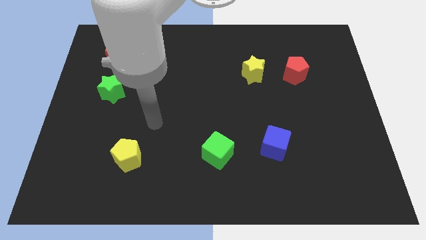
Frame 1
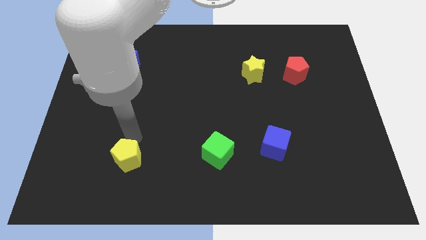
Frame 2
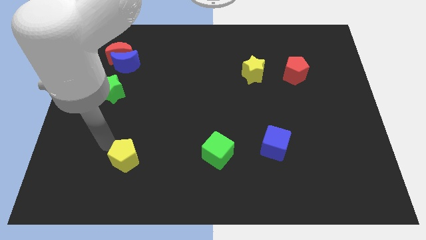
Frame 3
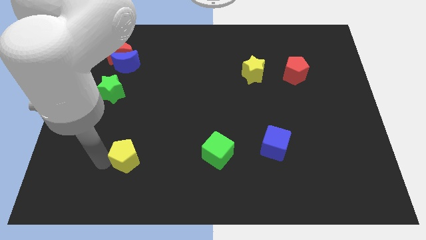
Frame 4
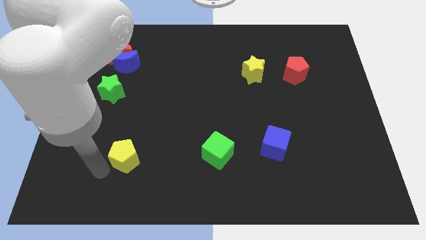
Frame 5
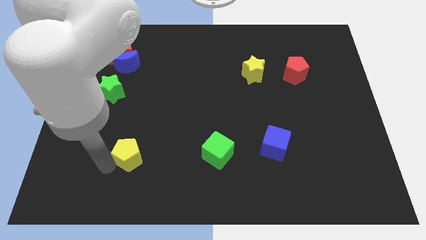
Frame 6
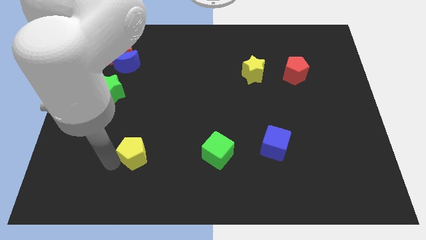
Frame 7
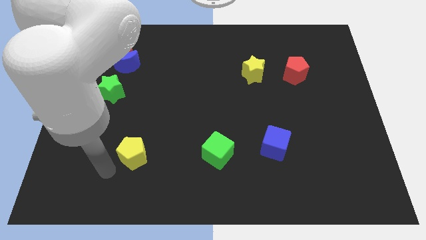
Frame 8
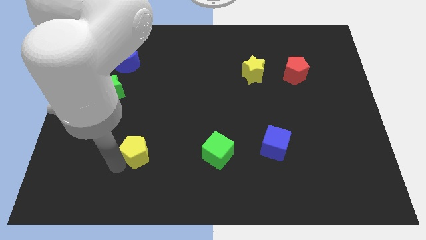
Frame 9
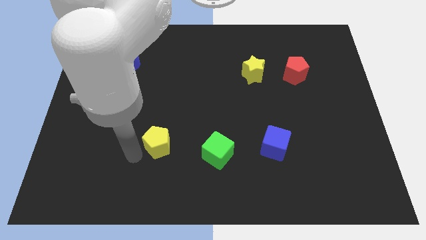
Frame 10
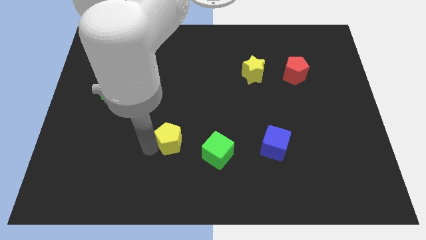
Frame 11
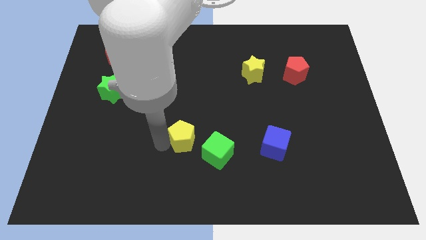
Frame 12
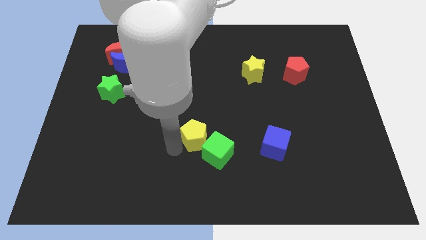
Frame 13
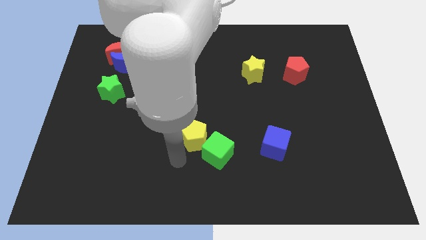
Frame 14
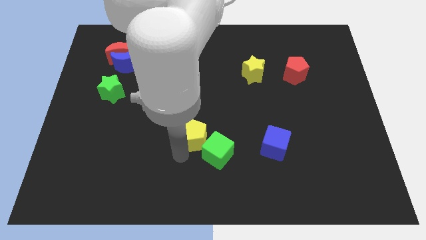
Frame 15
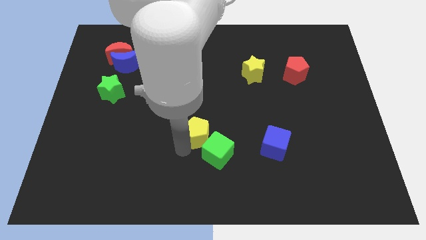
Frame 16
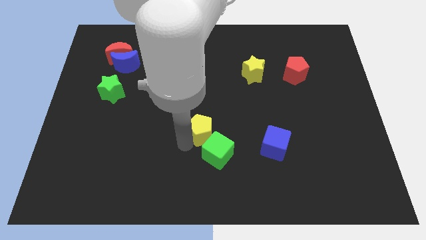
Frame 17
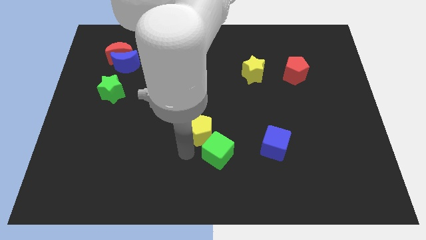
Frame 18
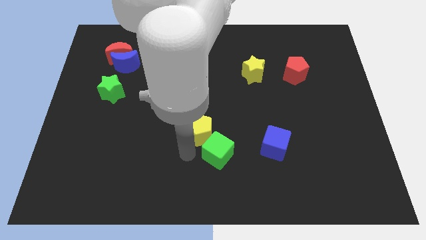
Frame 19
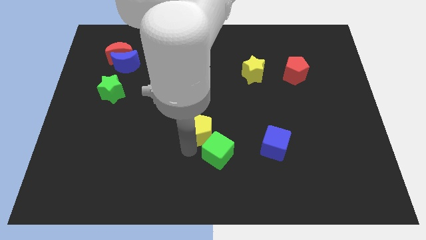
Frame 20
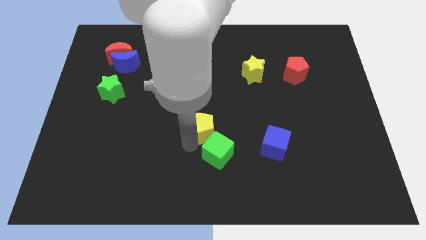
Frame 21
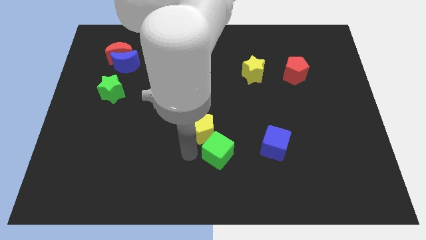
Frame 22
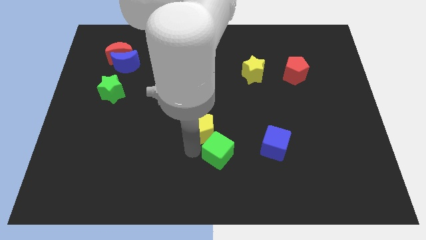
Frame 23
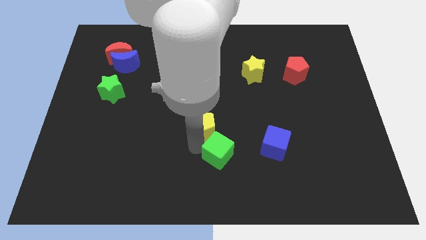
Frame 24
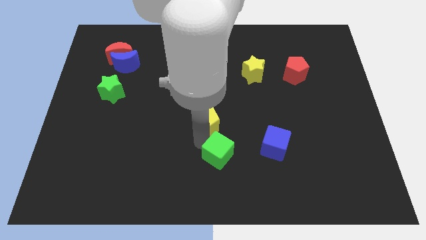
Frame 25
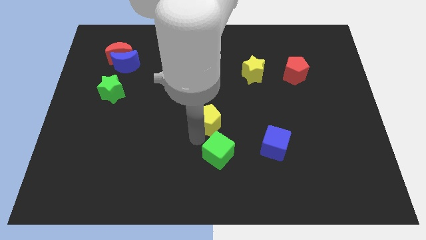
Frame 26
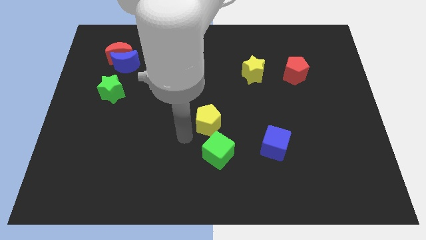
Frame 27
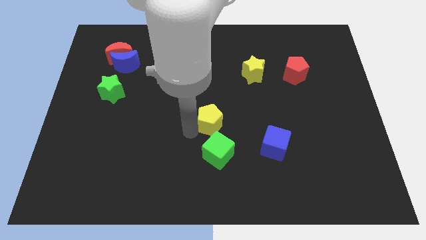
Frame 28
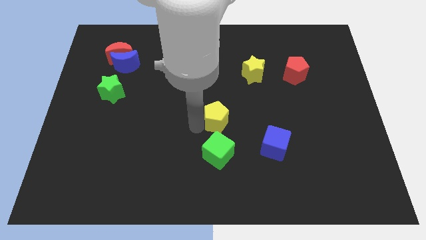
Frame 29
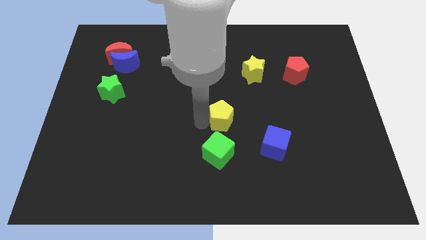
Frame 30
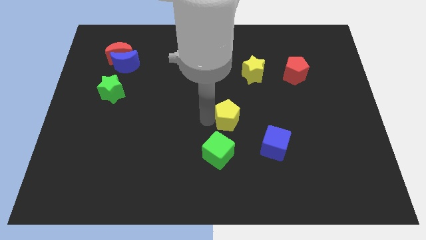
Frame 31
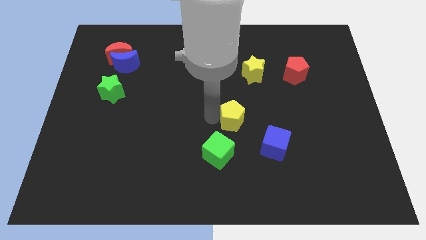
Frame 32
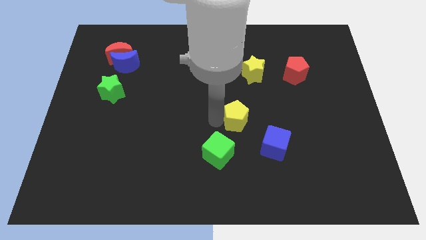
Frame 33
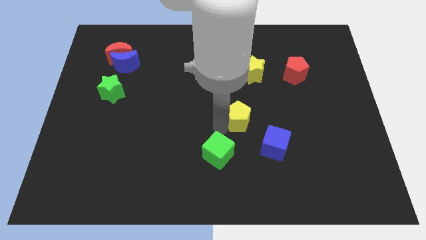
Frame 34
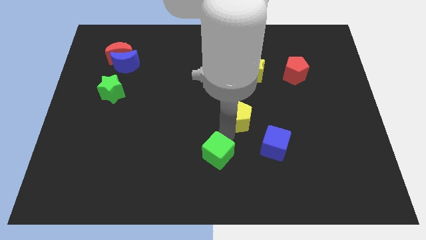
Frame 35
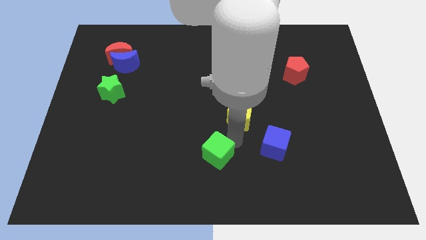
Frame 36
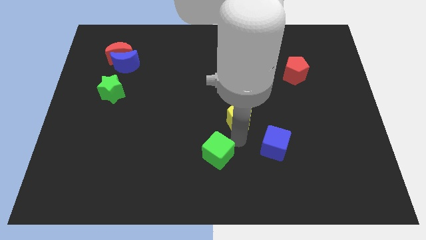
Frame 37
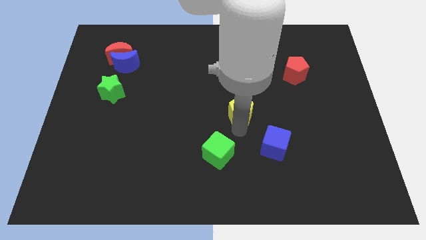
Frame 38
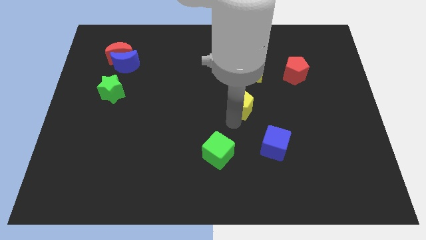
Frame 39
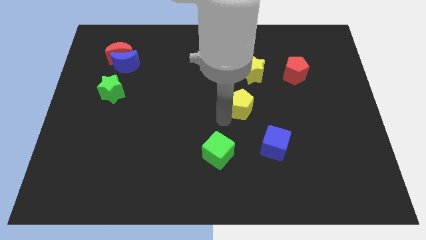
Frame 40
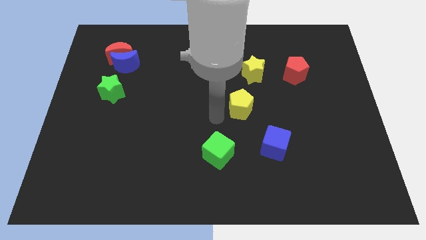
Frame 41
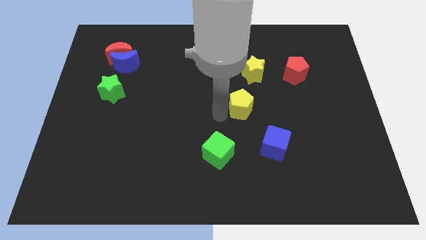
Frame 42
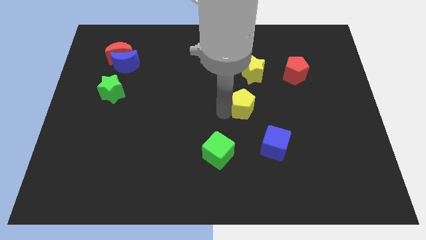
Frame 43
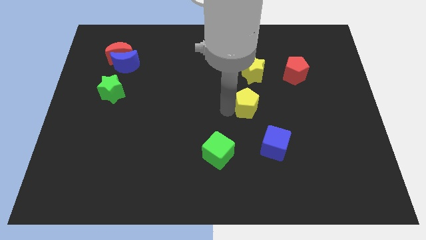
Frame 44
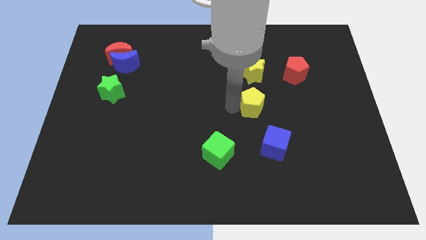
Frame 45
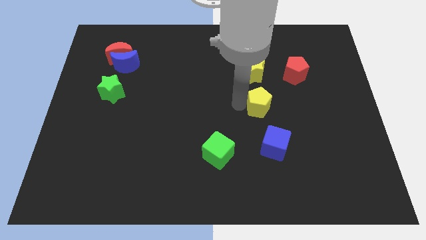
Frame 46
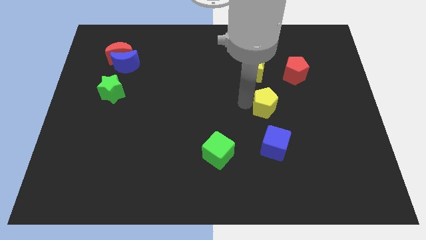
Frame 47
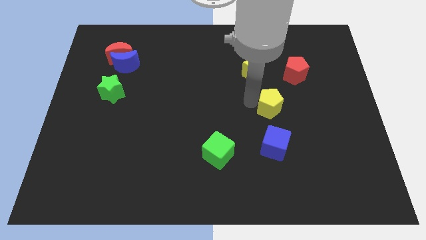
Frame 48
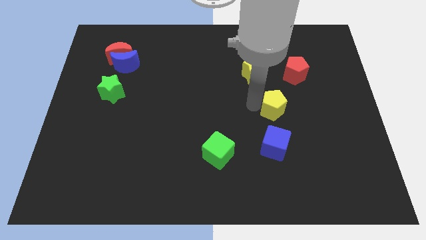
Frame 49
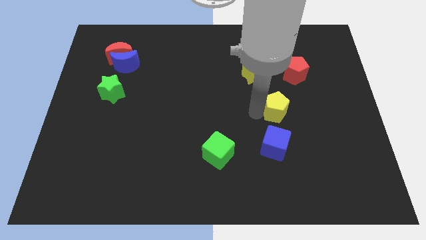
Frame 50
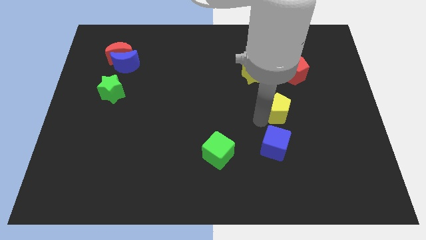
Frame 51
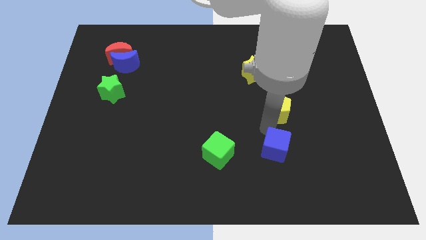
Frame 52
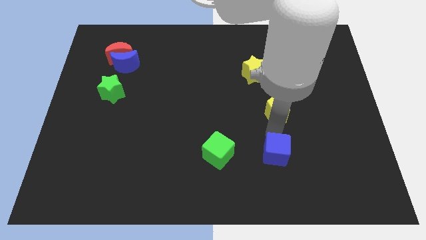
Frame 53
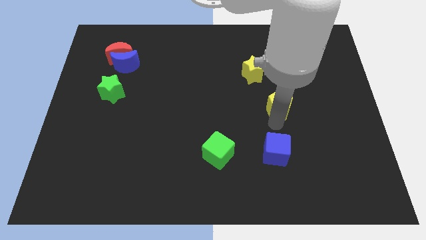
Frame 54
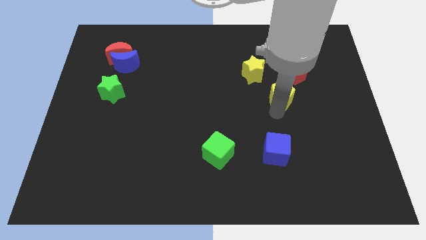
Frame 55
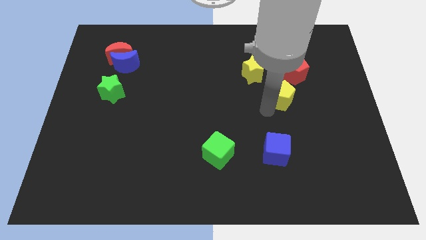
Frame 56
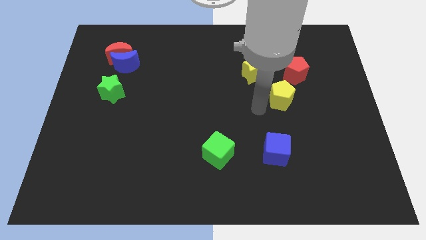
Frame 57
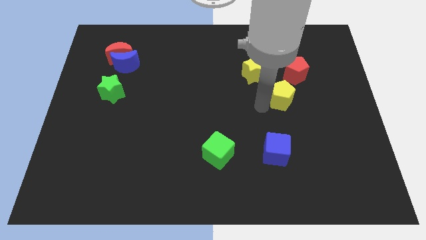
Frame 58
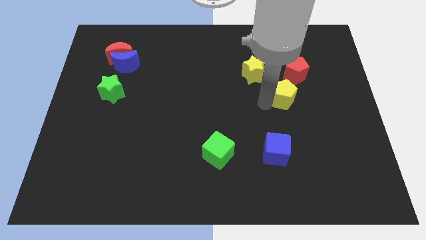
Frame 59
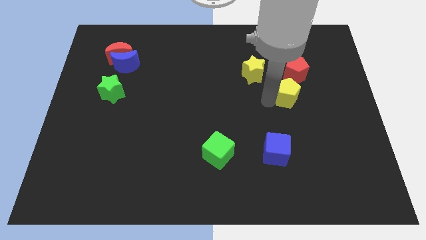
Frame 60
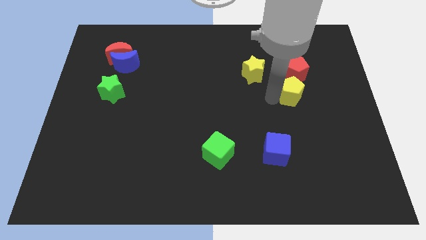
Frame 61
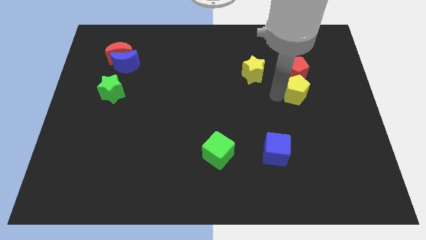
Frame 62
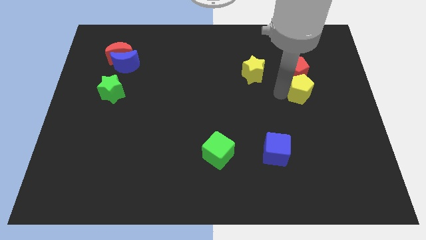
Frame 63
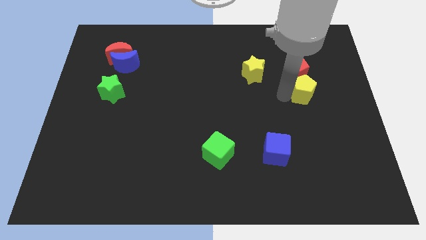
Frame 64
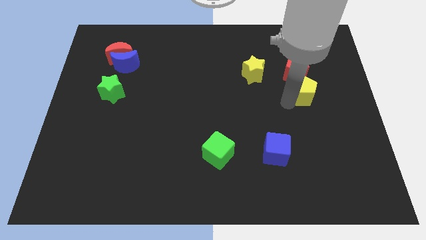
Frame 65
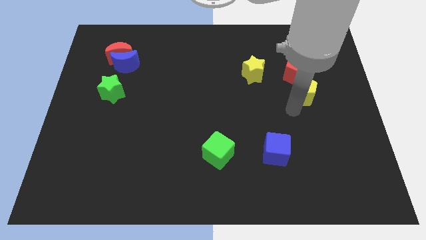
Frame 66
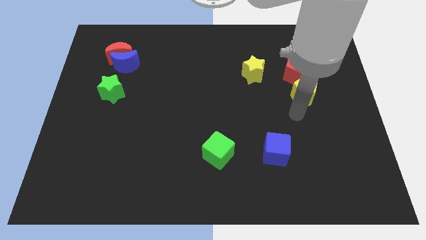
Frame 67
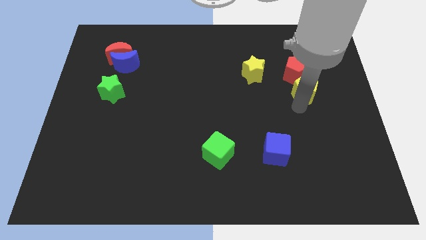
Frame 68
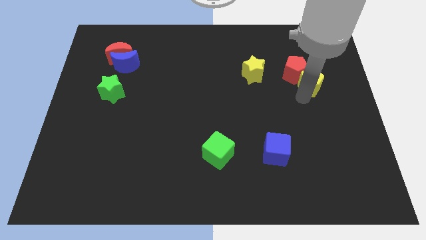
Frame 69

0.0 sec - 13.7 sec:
move the yellow pentagon to the right side of the yellow star
